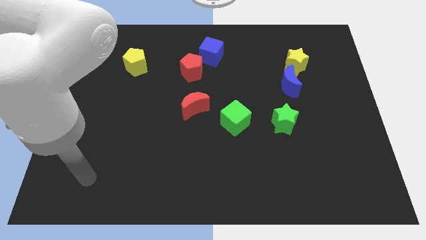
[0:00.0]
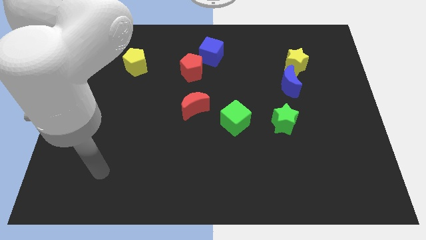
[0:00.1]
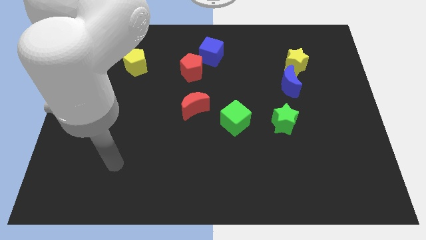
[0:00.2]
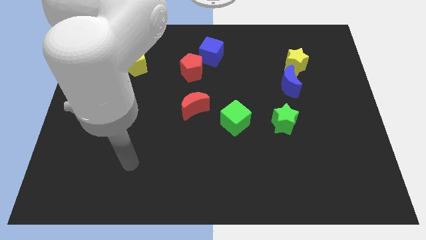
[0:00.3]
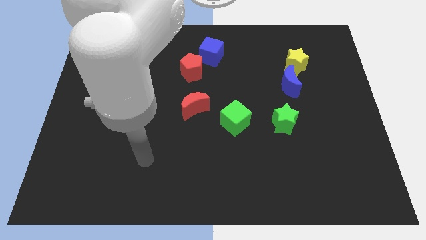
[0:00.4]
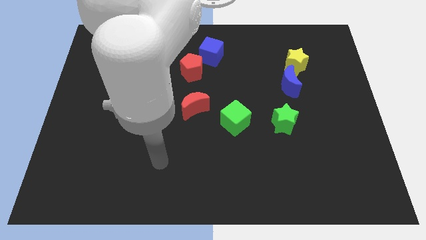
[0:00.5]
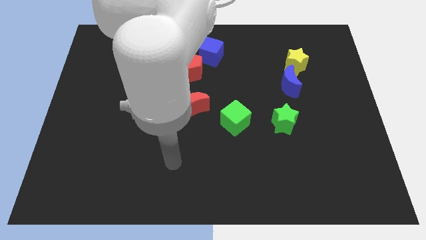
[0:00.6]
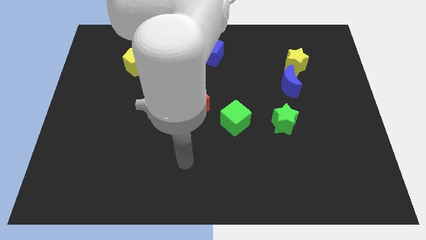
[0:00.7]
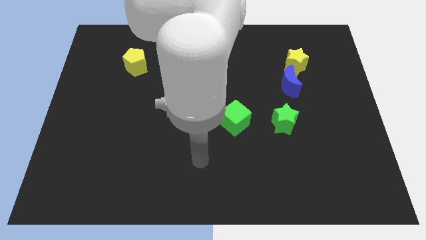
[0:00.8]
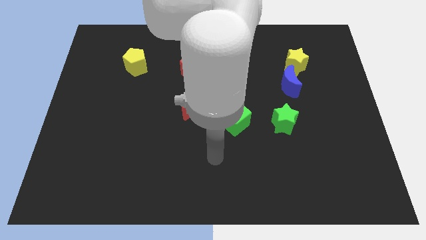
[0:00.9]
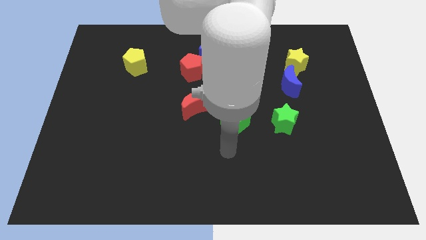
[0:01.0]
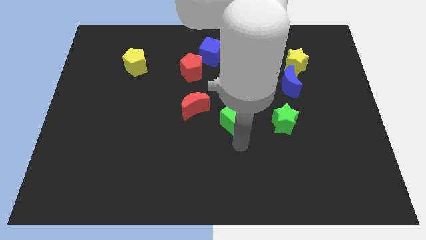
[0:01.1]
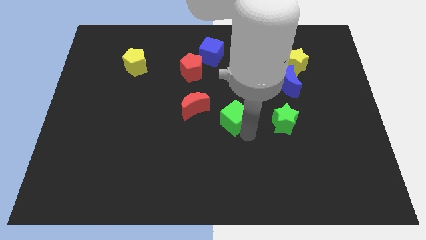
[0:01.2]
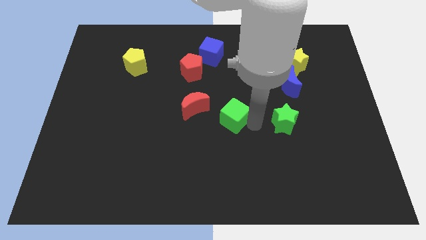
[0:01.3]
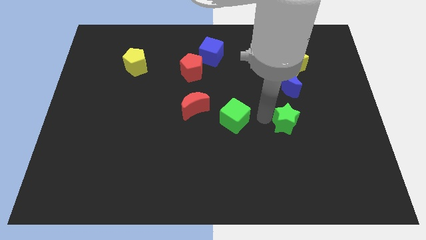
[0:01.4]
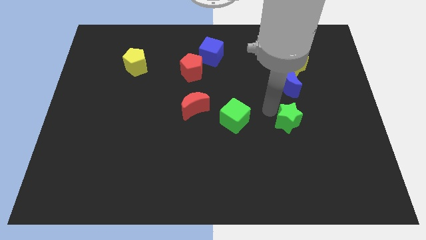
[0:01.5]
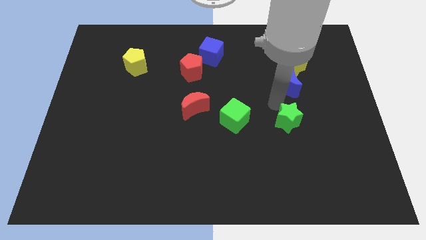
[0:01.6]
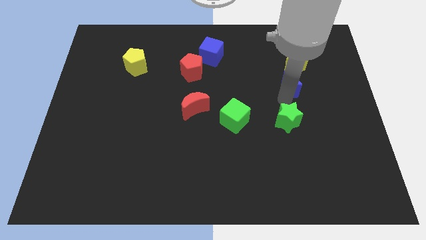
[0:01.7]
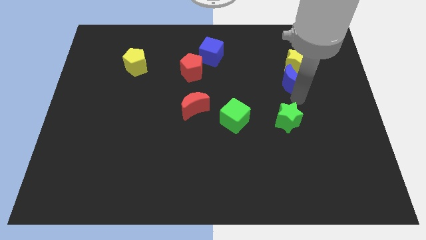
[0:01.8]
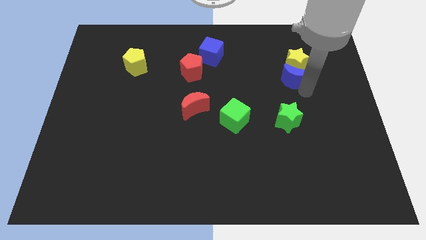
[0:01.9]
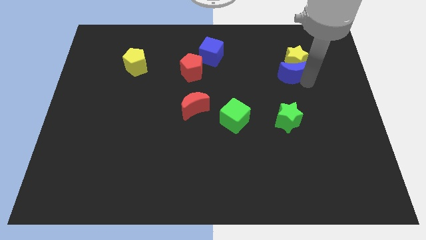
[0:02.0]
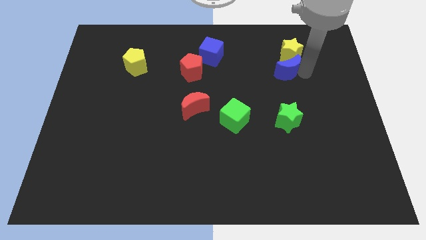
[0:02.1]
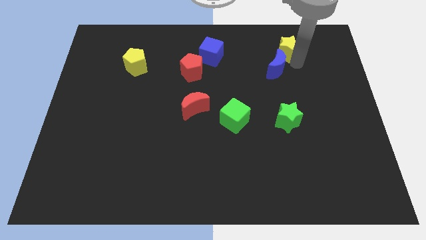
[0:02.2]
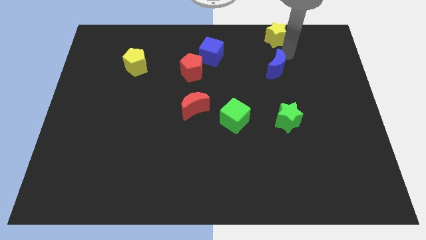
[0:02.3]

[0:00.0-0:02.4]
separate the blue moon from the yellow star

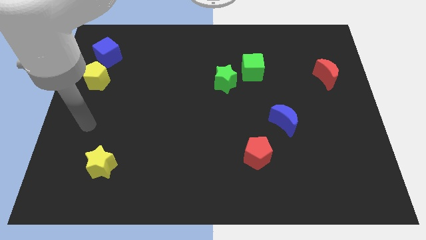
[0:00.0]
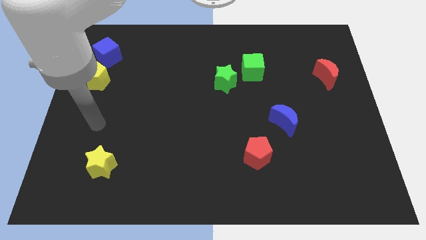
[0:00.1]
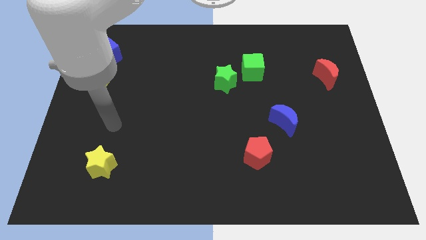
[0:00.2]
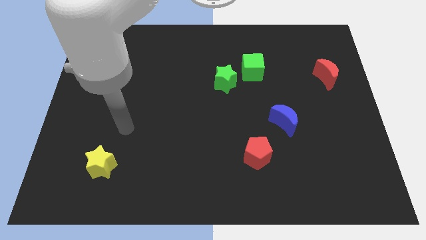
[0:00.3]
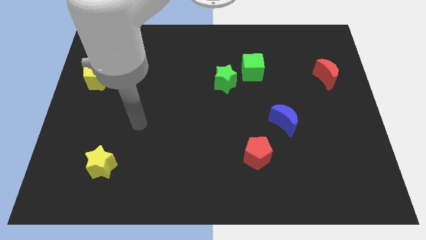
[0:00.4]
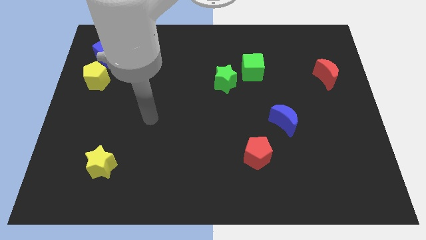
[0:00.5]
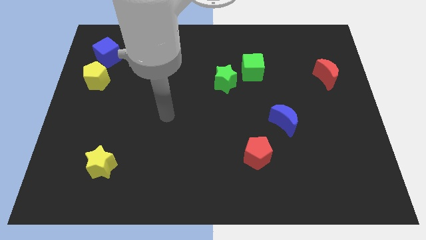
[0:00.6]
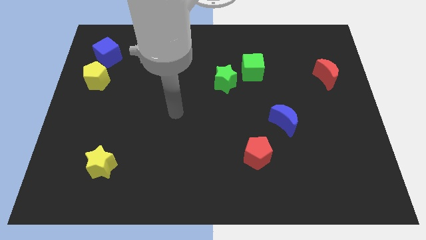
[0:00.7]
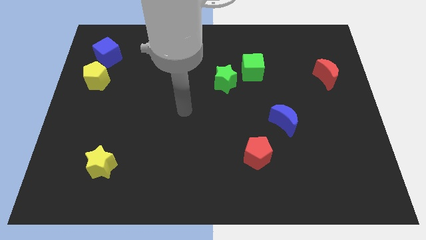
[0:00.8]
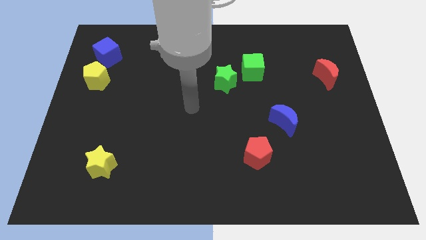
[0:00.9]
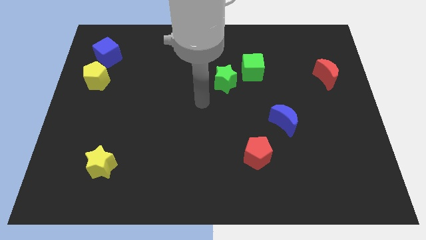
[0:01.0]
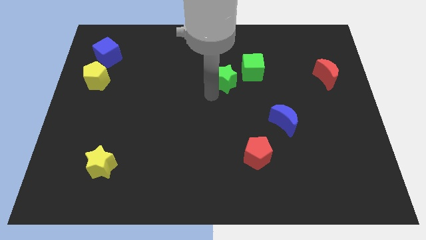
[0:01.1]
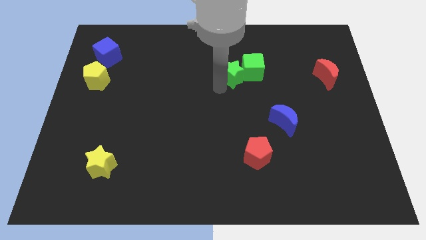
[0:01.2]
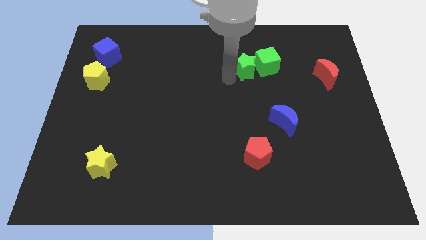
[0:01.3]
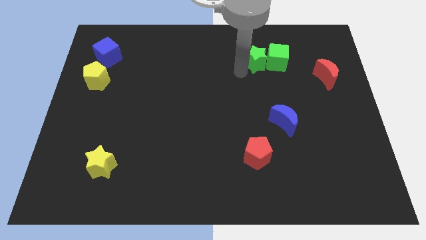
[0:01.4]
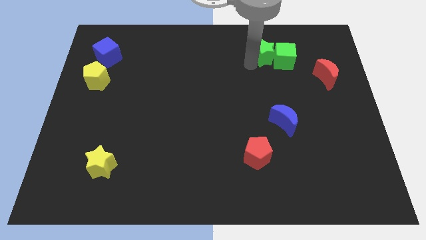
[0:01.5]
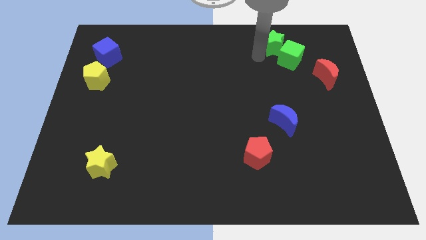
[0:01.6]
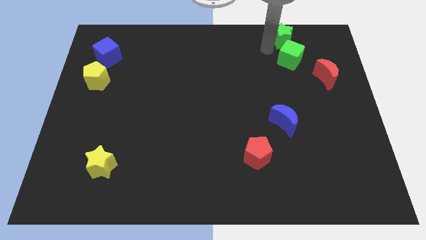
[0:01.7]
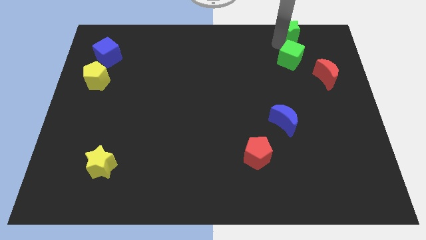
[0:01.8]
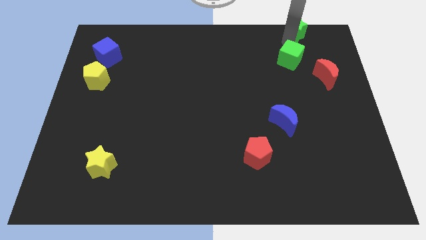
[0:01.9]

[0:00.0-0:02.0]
separate the green cube from the green star

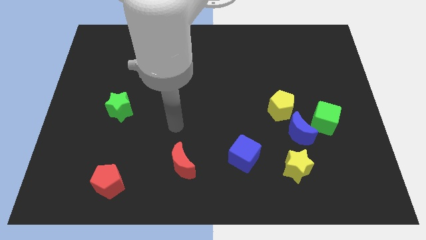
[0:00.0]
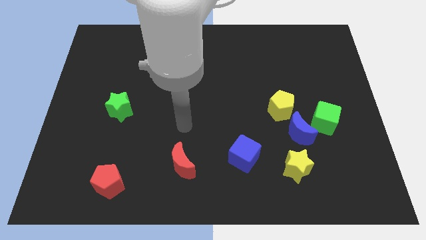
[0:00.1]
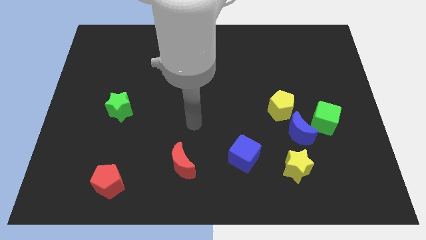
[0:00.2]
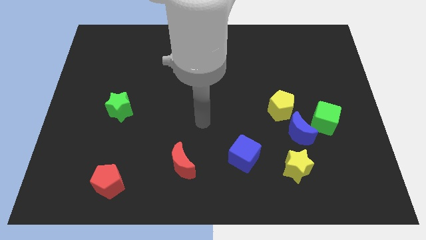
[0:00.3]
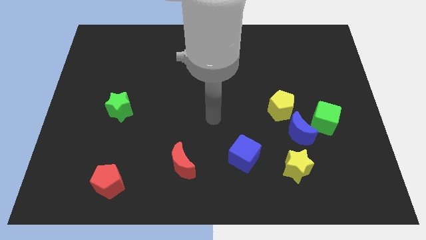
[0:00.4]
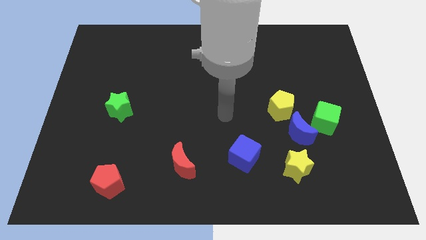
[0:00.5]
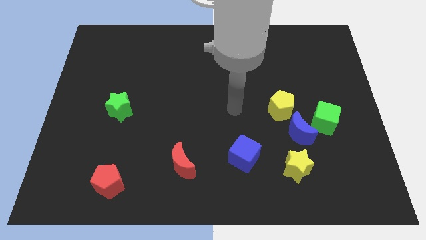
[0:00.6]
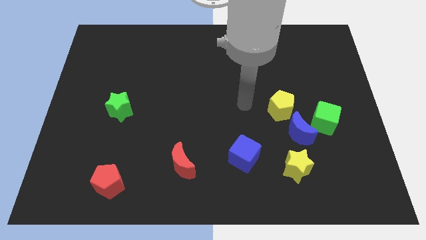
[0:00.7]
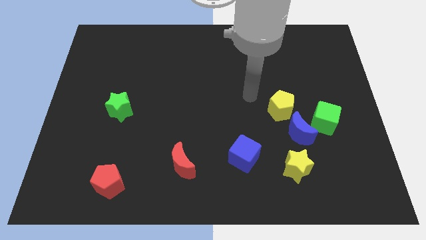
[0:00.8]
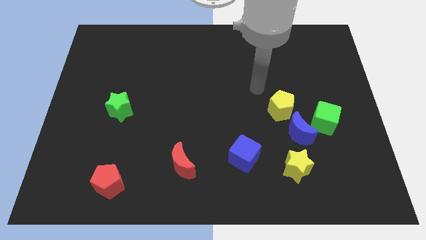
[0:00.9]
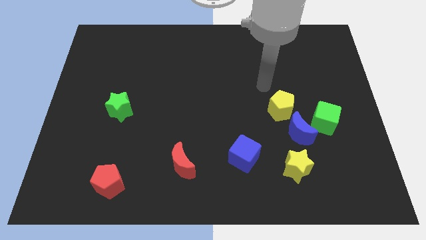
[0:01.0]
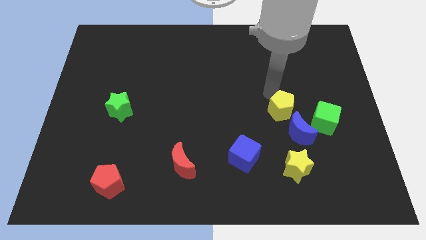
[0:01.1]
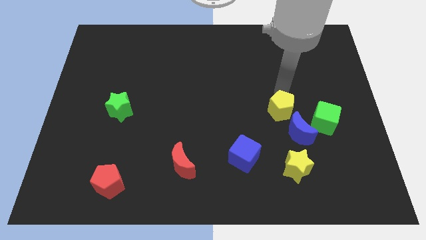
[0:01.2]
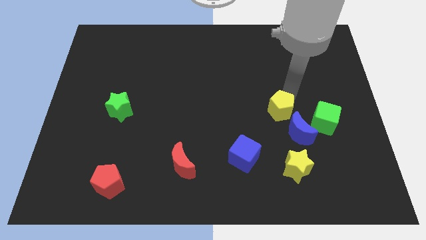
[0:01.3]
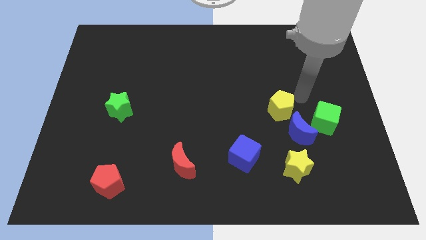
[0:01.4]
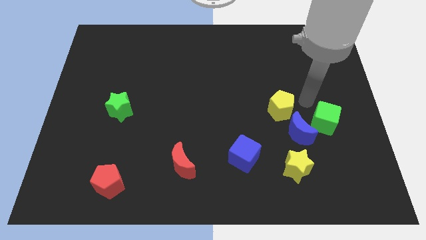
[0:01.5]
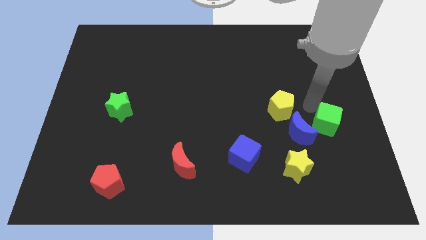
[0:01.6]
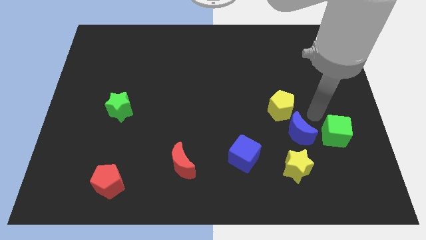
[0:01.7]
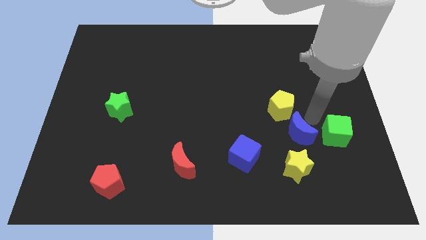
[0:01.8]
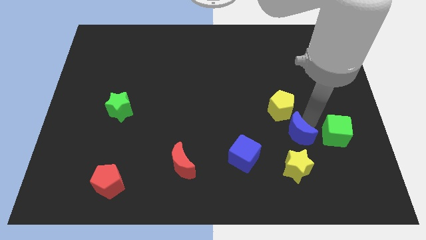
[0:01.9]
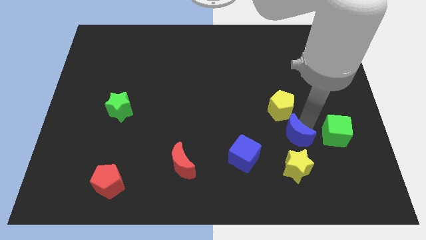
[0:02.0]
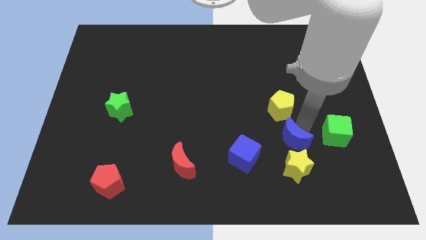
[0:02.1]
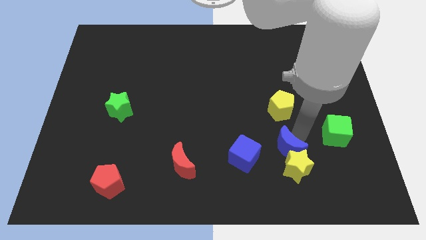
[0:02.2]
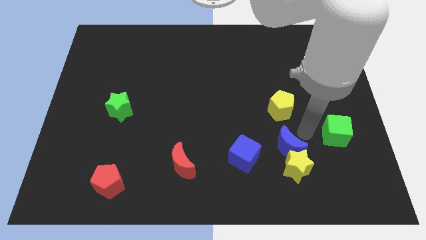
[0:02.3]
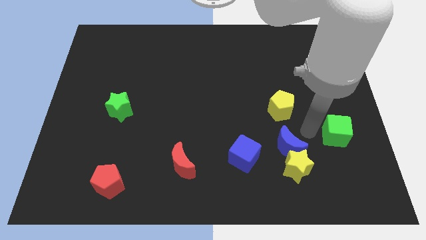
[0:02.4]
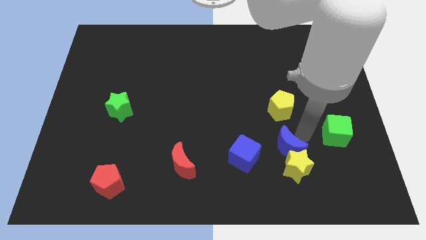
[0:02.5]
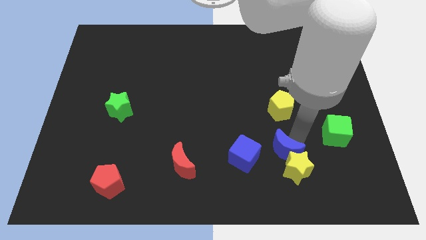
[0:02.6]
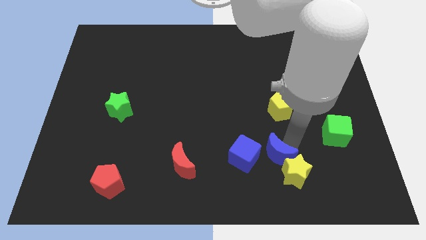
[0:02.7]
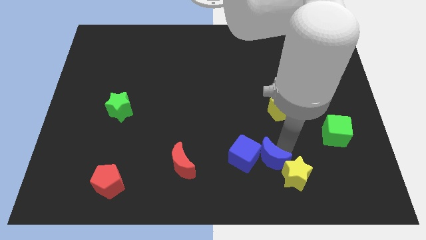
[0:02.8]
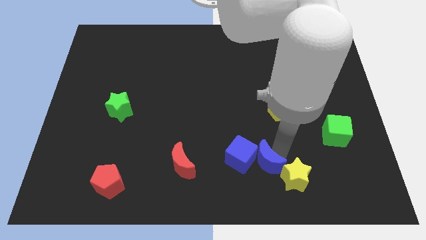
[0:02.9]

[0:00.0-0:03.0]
pull the blue moon apart from the green cube, yellow pentagon, and yellow star

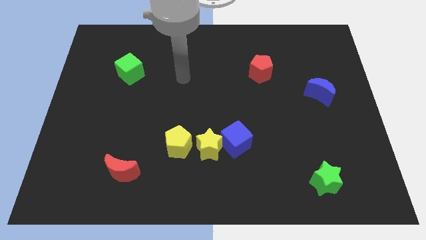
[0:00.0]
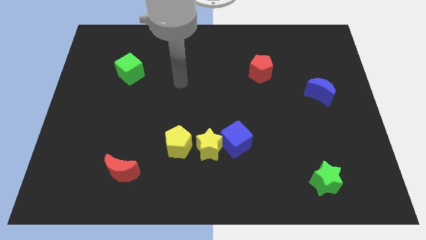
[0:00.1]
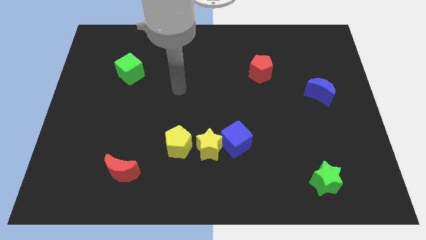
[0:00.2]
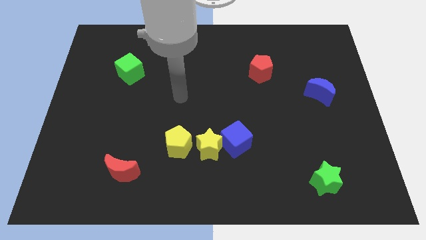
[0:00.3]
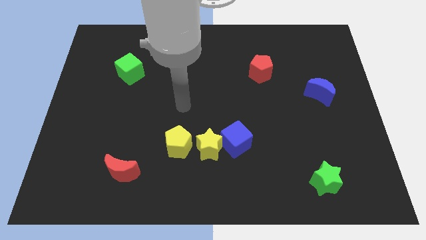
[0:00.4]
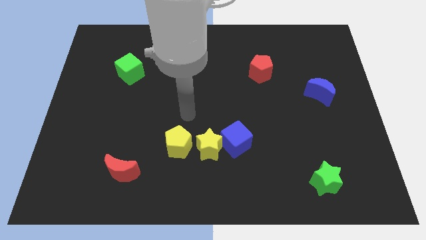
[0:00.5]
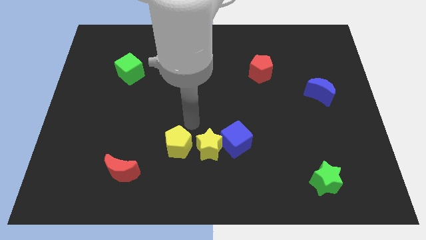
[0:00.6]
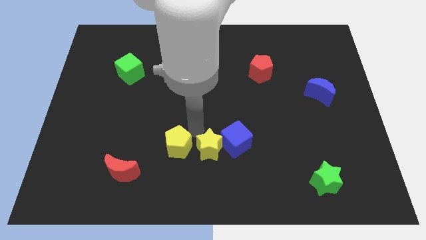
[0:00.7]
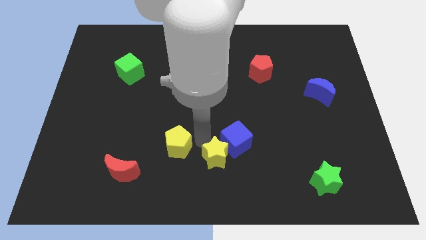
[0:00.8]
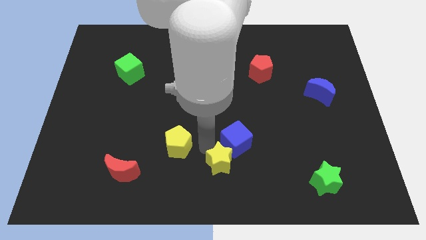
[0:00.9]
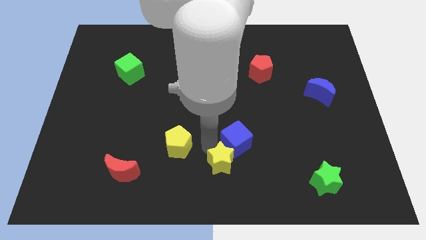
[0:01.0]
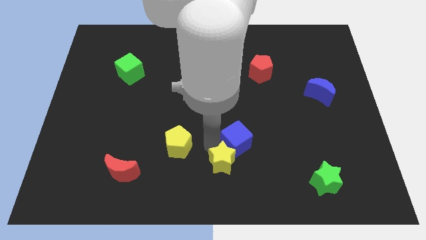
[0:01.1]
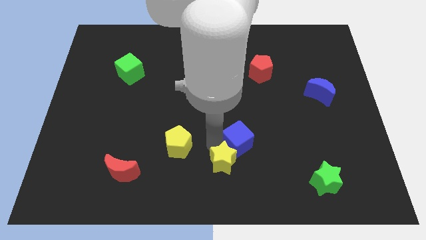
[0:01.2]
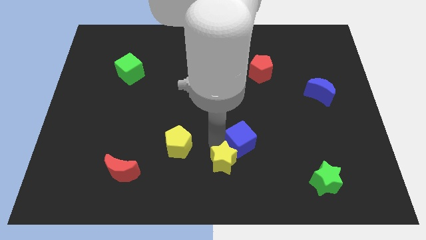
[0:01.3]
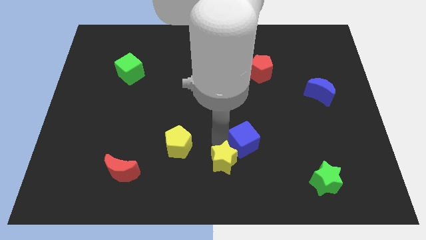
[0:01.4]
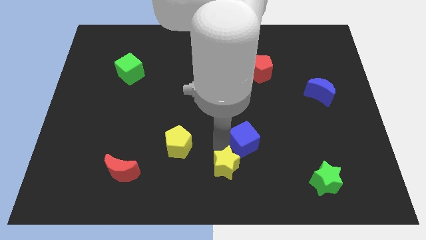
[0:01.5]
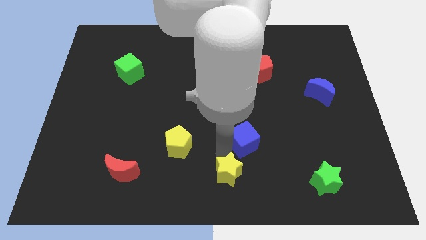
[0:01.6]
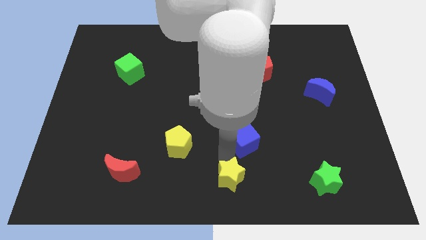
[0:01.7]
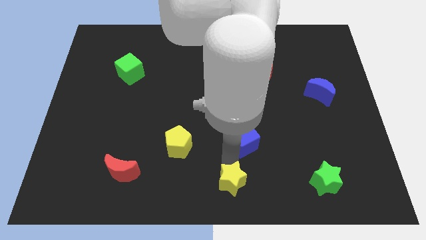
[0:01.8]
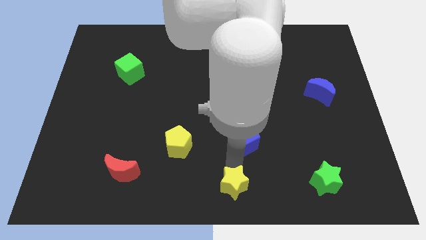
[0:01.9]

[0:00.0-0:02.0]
pull the blue cube apart from the yellow star

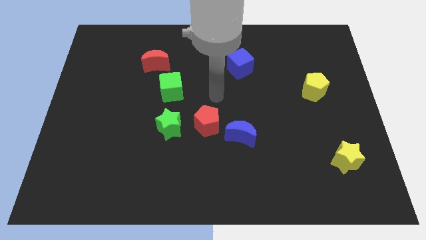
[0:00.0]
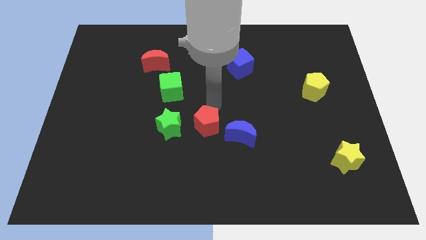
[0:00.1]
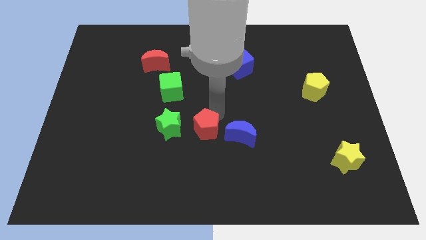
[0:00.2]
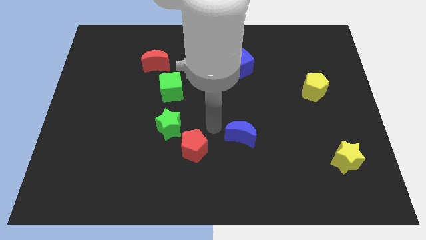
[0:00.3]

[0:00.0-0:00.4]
pull the blue moon apart from the red pentagon
